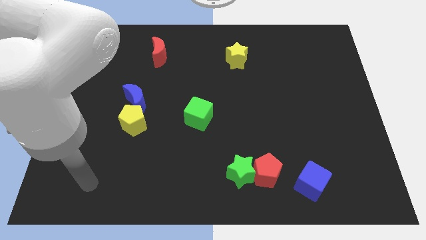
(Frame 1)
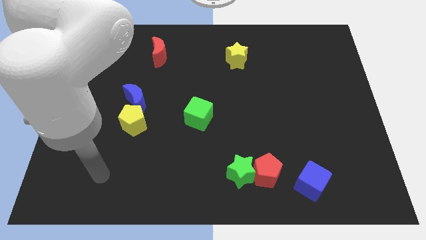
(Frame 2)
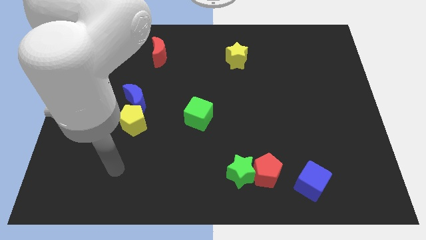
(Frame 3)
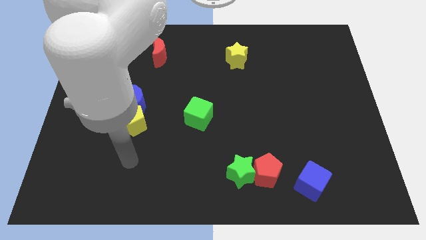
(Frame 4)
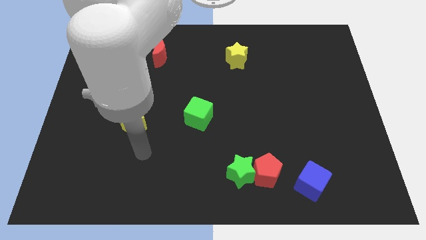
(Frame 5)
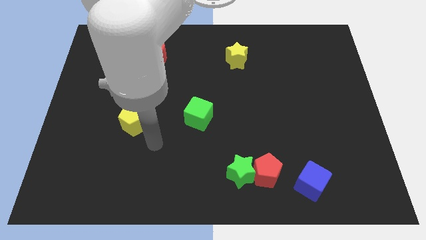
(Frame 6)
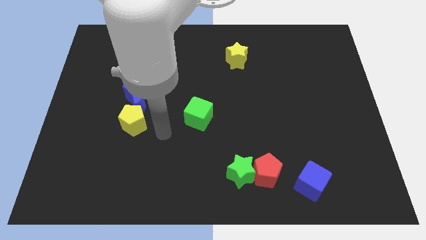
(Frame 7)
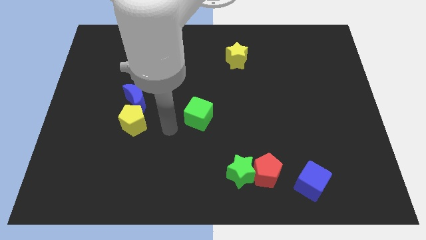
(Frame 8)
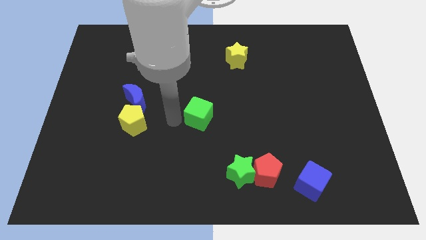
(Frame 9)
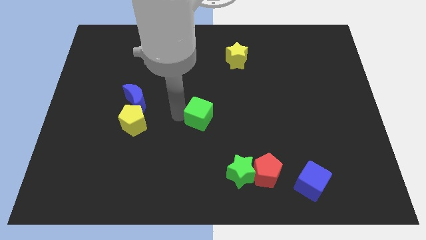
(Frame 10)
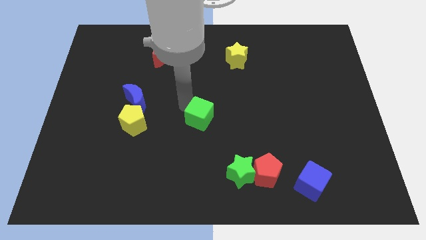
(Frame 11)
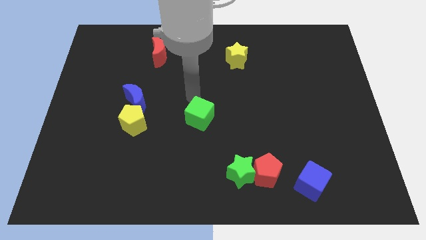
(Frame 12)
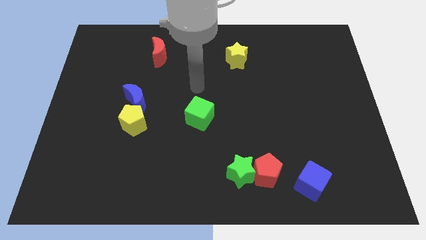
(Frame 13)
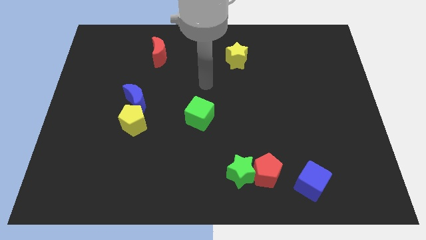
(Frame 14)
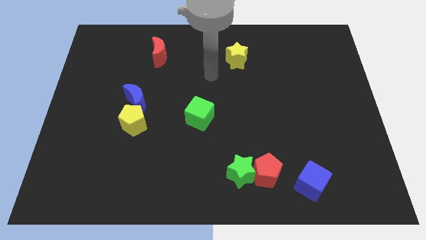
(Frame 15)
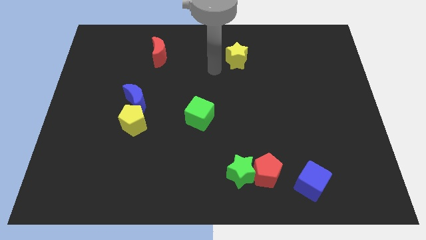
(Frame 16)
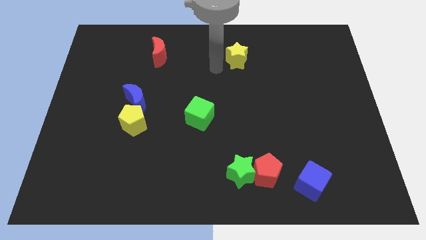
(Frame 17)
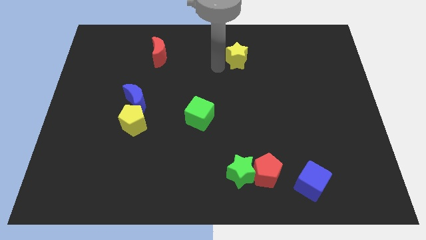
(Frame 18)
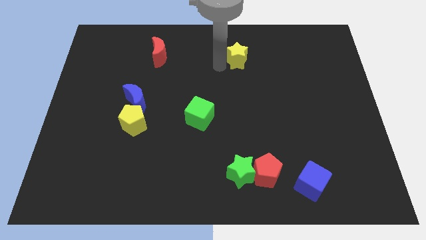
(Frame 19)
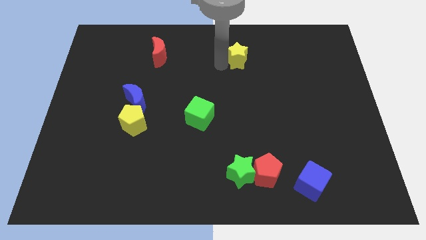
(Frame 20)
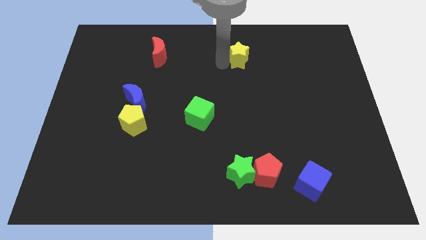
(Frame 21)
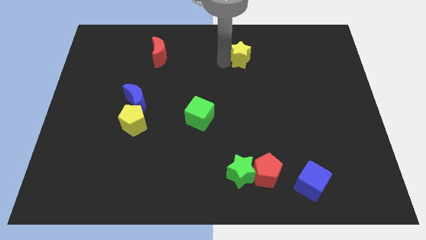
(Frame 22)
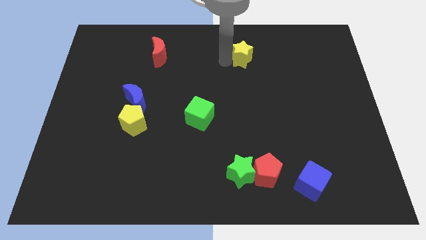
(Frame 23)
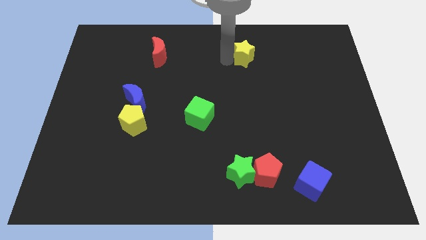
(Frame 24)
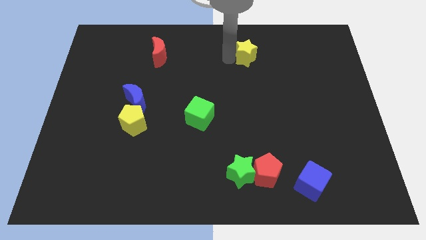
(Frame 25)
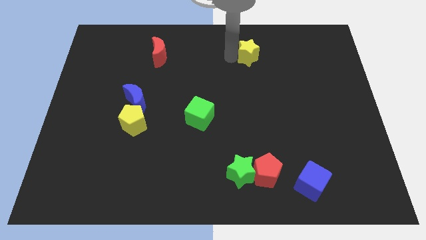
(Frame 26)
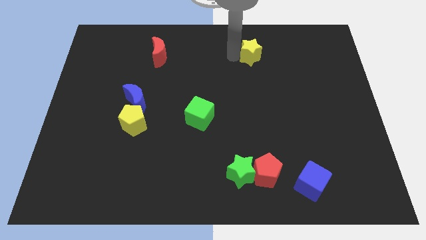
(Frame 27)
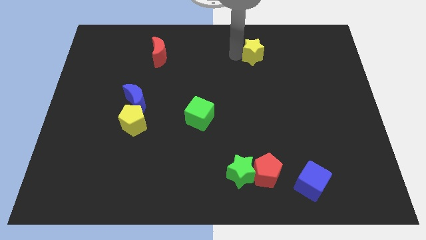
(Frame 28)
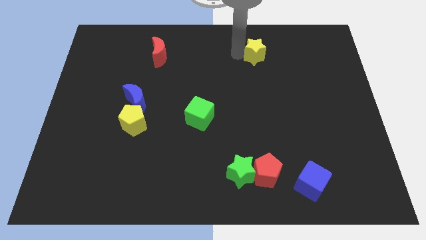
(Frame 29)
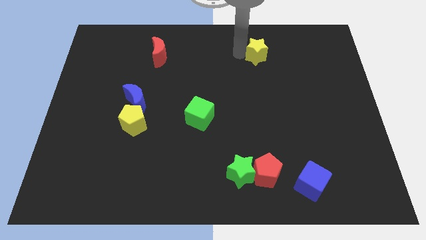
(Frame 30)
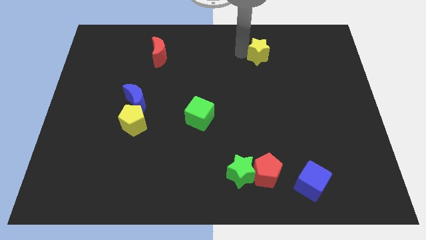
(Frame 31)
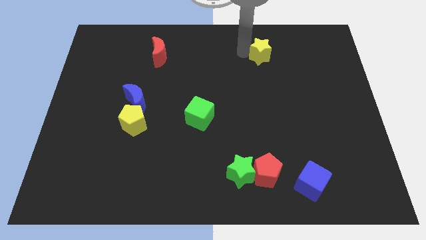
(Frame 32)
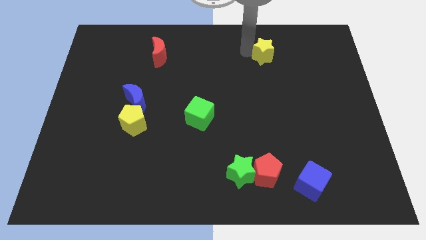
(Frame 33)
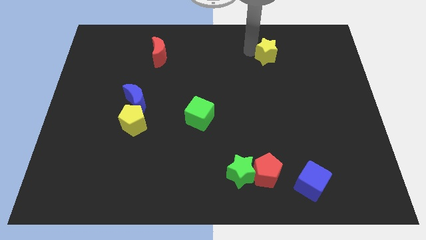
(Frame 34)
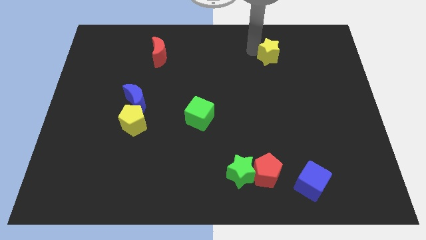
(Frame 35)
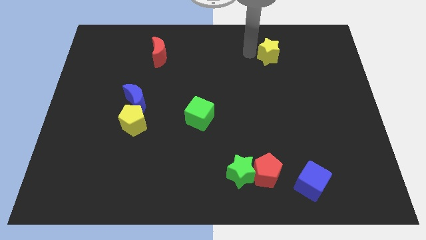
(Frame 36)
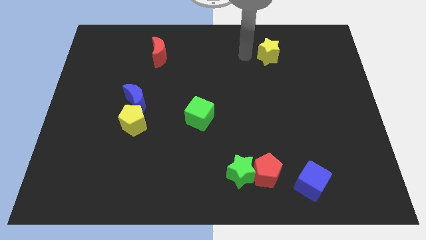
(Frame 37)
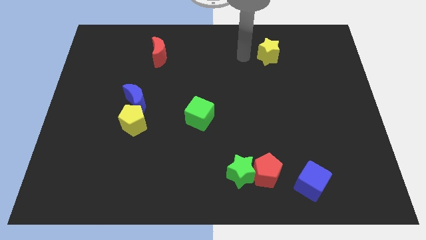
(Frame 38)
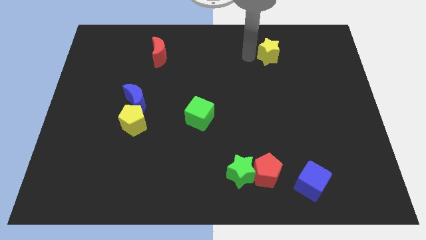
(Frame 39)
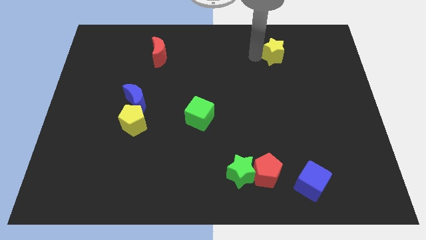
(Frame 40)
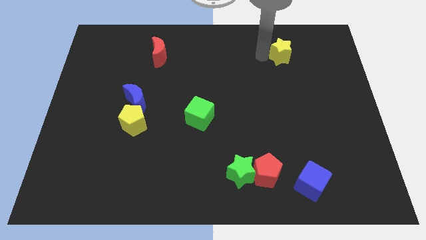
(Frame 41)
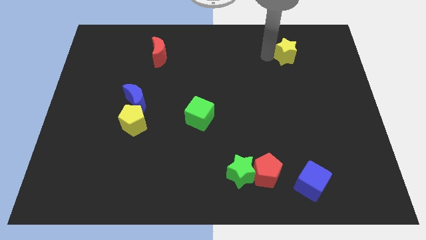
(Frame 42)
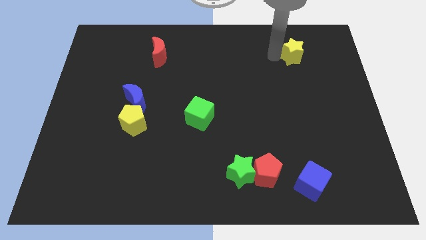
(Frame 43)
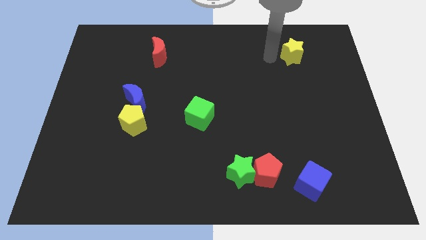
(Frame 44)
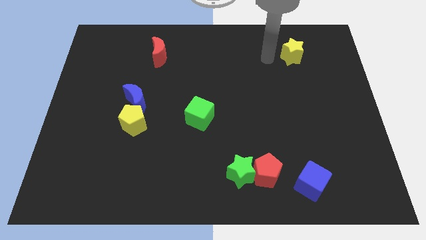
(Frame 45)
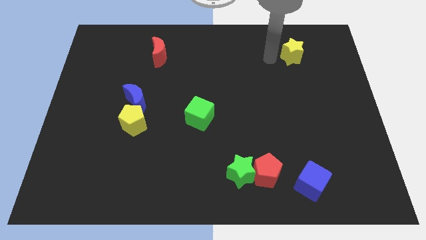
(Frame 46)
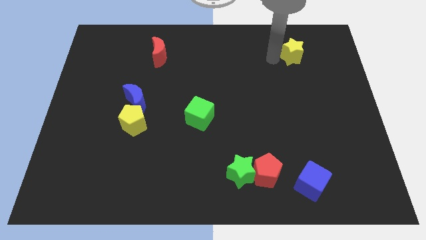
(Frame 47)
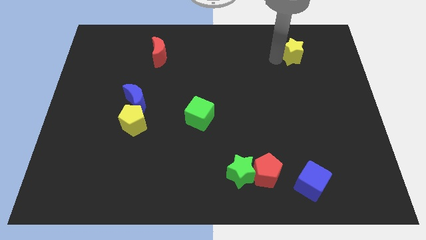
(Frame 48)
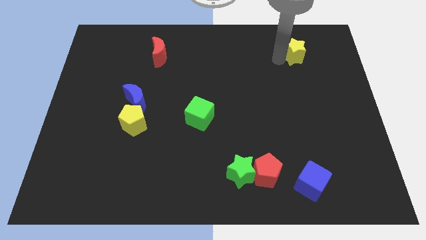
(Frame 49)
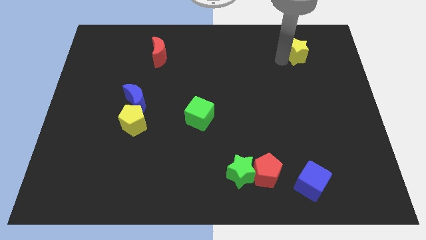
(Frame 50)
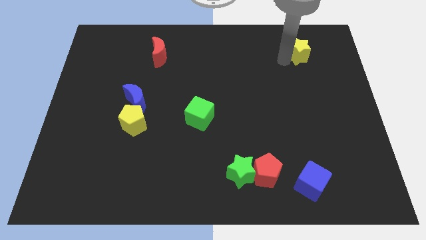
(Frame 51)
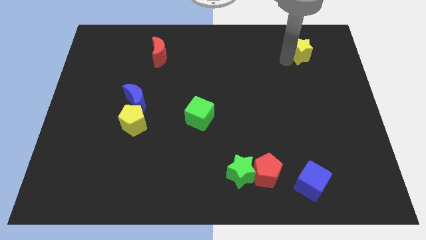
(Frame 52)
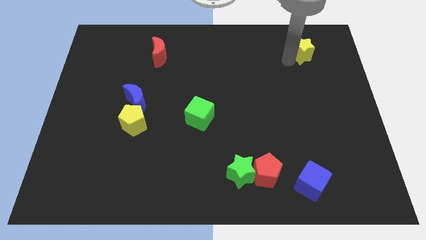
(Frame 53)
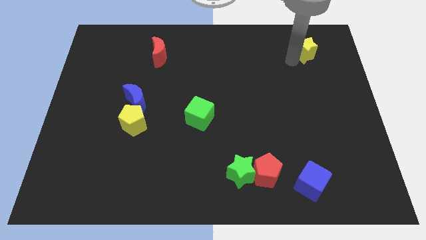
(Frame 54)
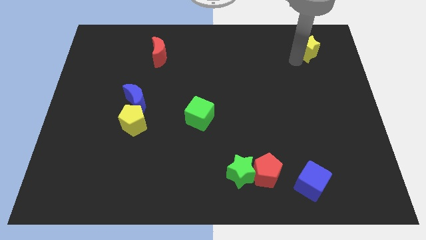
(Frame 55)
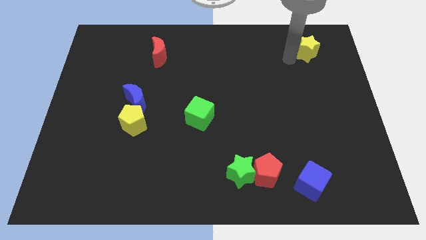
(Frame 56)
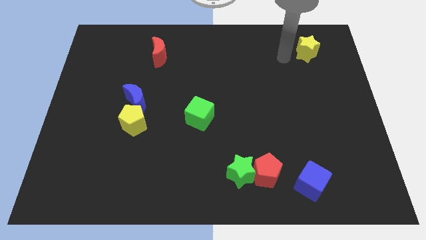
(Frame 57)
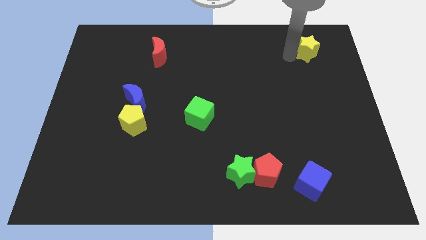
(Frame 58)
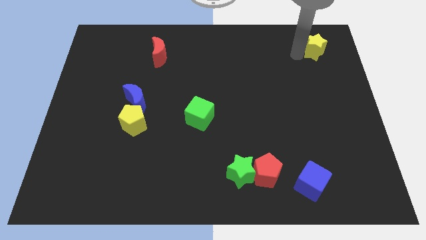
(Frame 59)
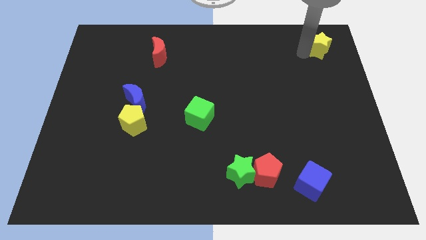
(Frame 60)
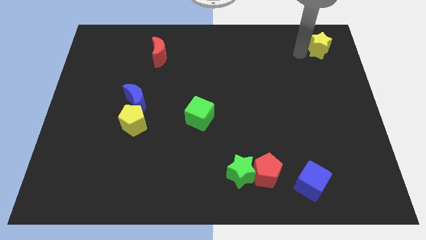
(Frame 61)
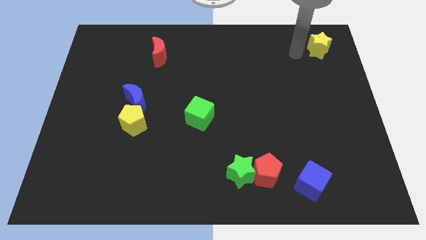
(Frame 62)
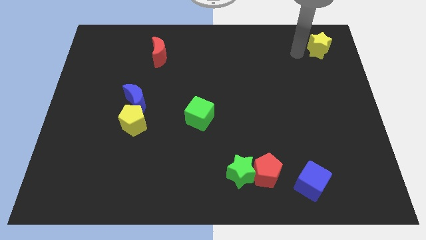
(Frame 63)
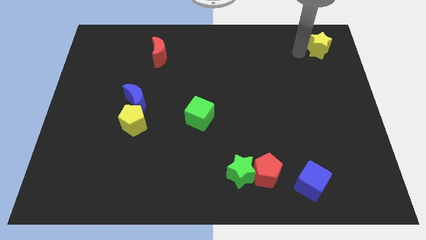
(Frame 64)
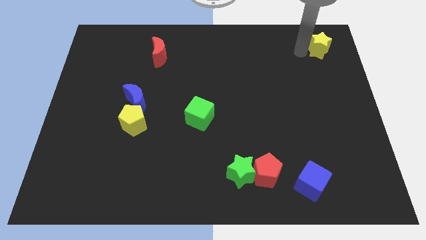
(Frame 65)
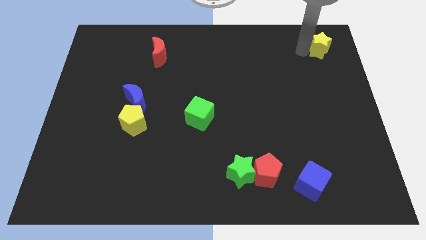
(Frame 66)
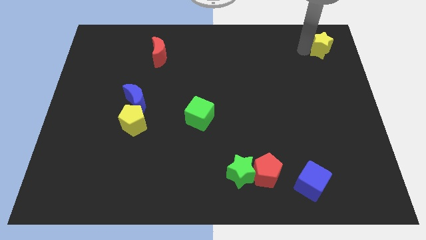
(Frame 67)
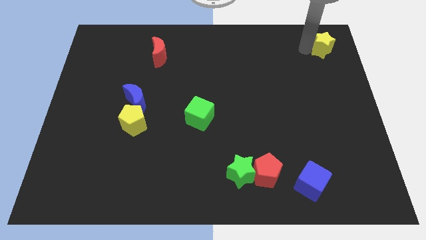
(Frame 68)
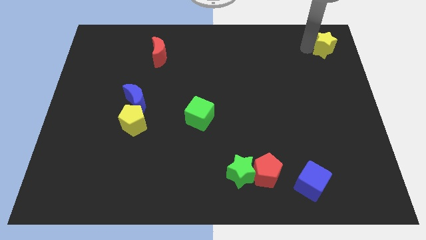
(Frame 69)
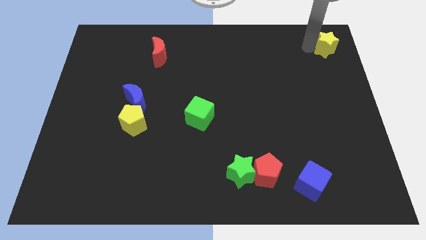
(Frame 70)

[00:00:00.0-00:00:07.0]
slide the yellow star to the top right of the board
